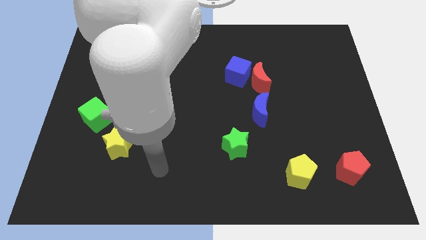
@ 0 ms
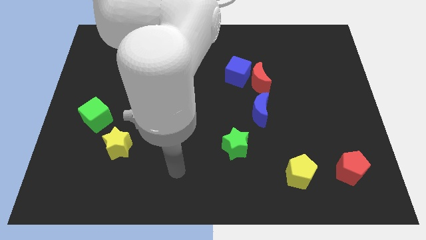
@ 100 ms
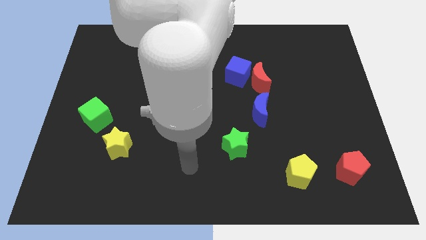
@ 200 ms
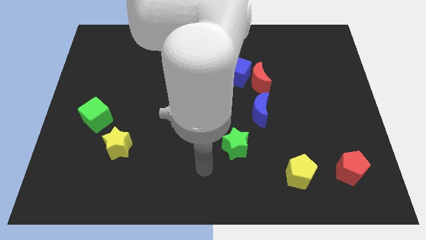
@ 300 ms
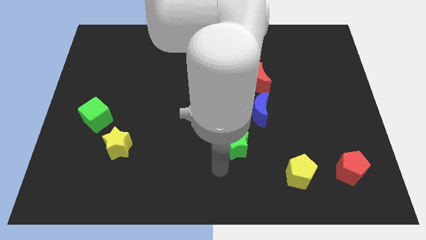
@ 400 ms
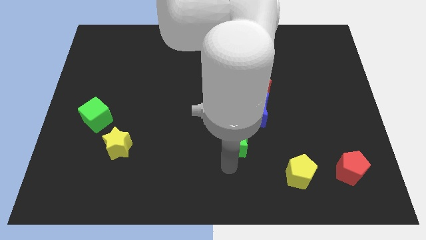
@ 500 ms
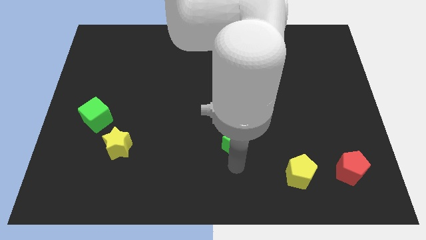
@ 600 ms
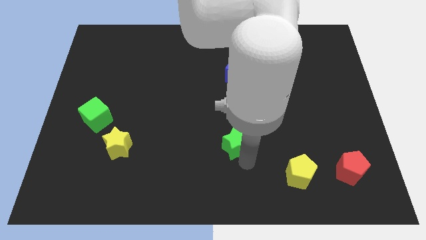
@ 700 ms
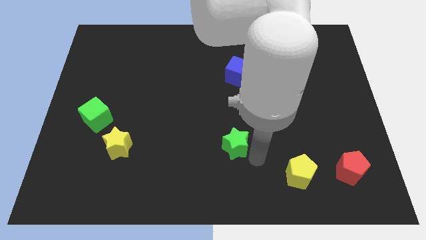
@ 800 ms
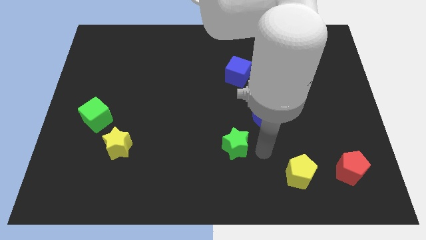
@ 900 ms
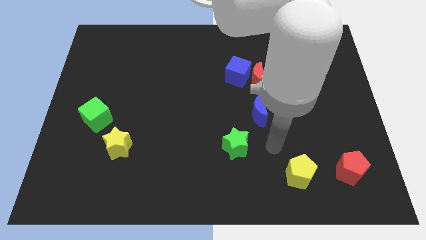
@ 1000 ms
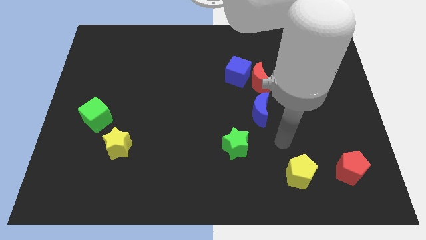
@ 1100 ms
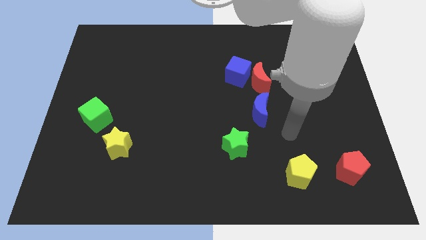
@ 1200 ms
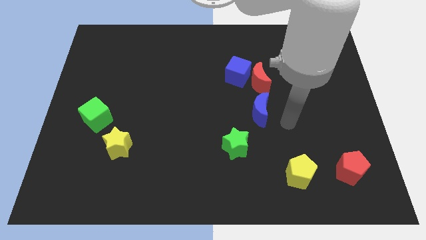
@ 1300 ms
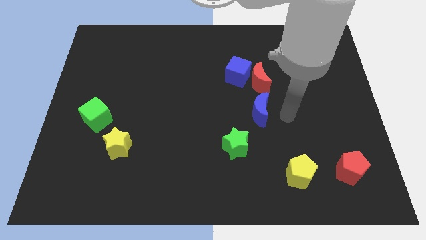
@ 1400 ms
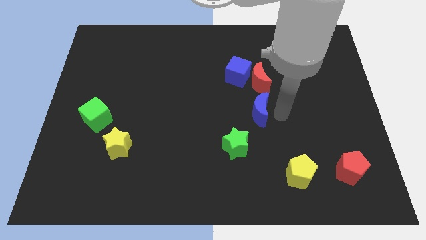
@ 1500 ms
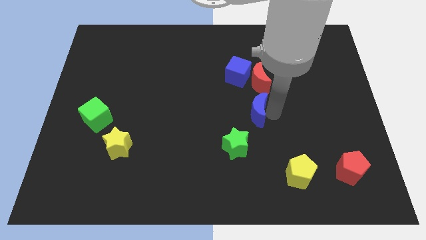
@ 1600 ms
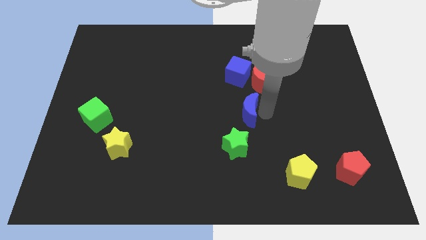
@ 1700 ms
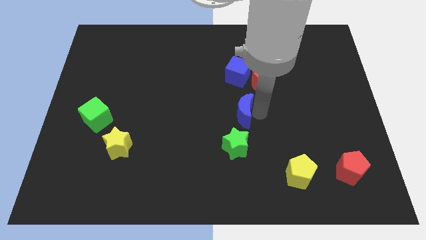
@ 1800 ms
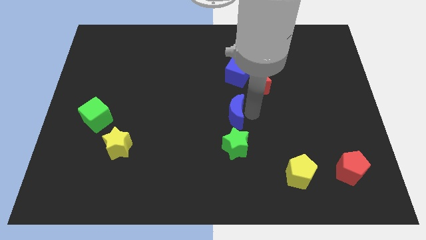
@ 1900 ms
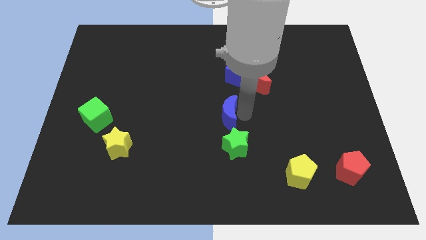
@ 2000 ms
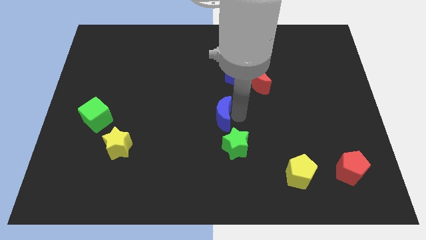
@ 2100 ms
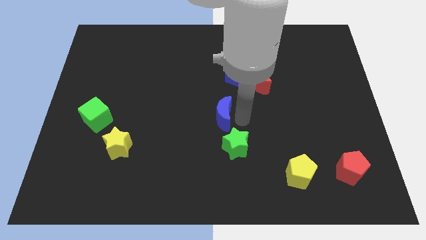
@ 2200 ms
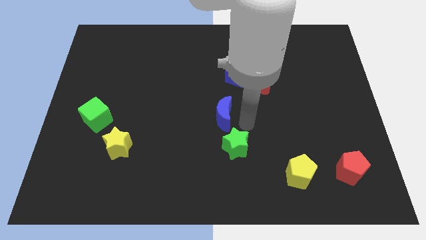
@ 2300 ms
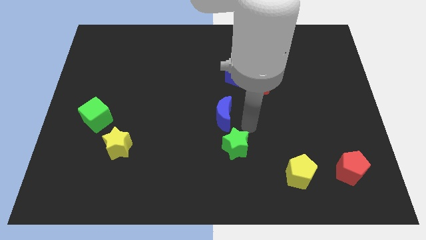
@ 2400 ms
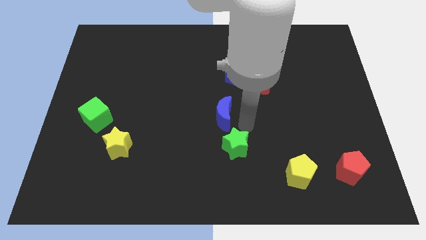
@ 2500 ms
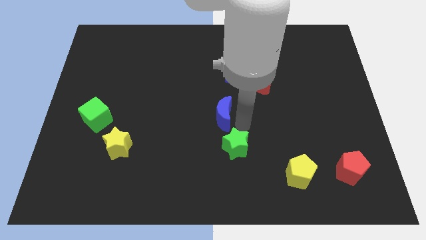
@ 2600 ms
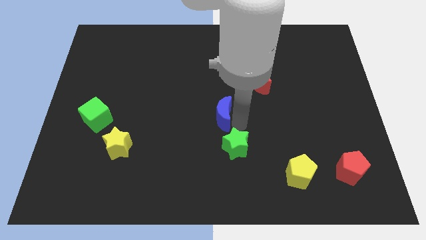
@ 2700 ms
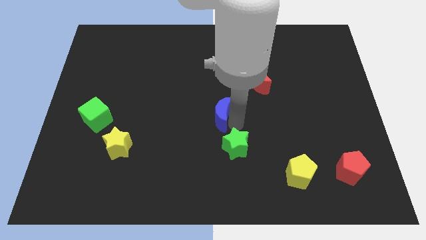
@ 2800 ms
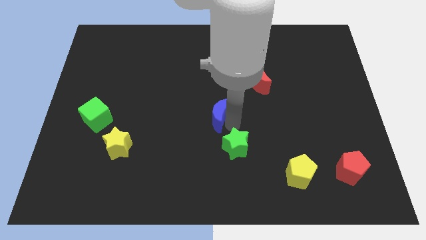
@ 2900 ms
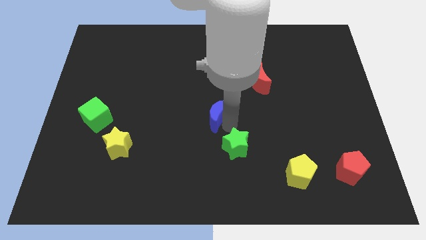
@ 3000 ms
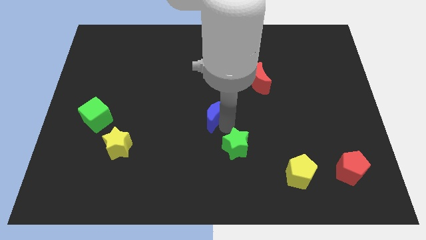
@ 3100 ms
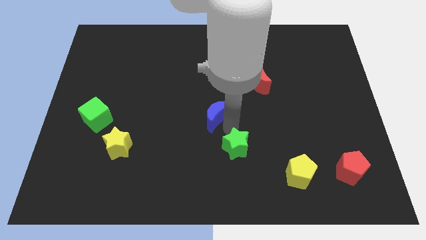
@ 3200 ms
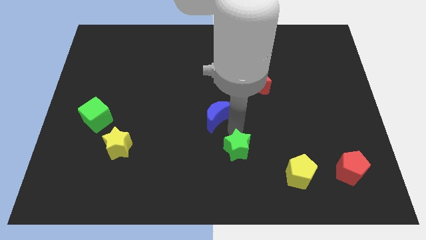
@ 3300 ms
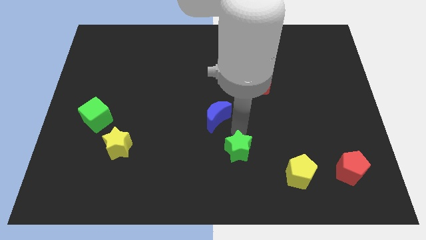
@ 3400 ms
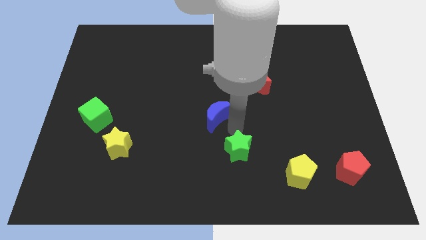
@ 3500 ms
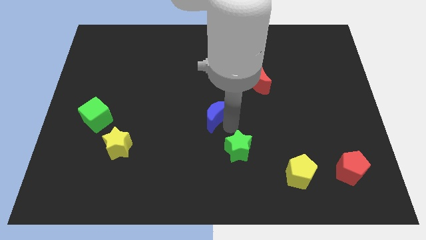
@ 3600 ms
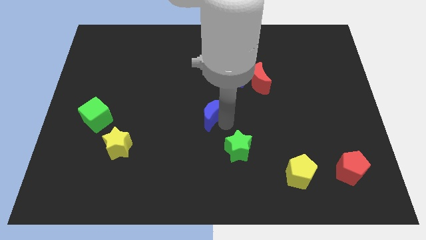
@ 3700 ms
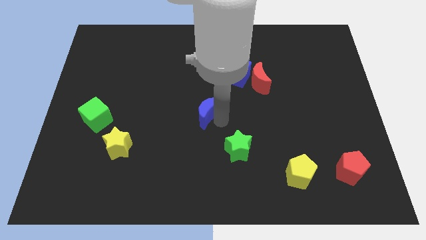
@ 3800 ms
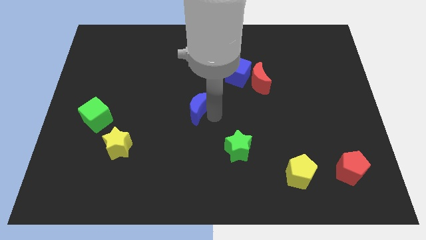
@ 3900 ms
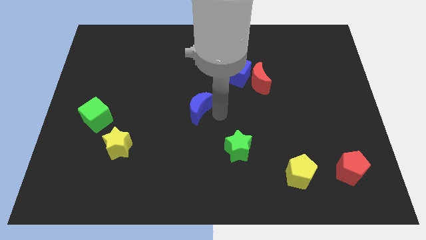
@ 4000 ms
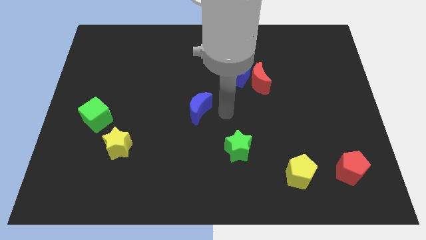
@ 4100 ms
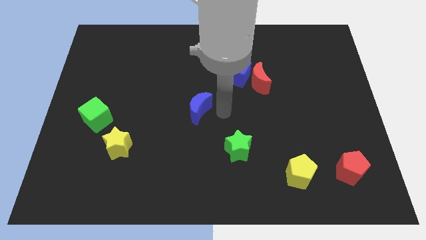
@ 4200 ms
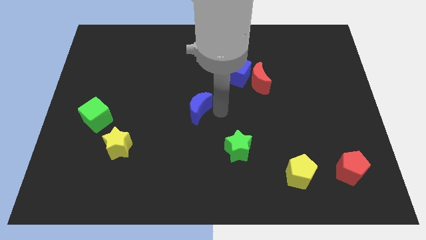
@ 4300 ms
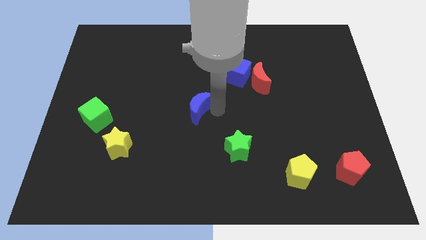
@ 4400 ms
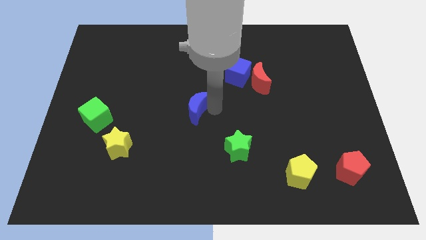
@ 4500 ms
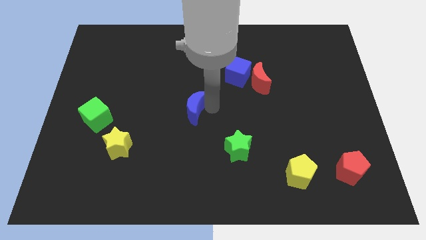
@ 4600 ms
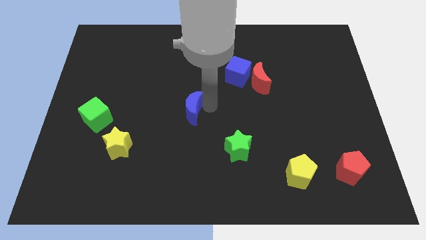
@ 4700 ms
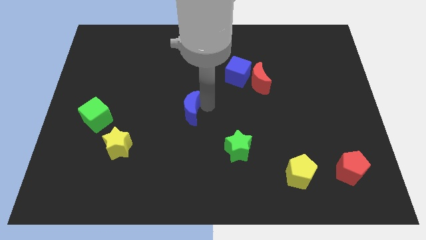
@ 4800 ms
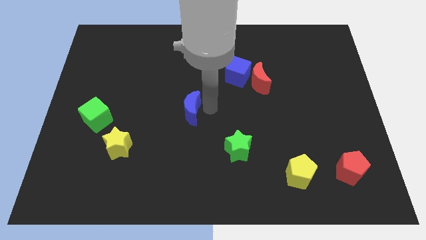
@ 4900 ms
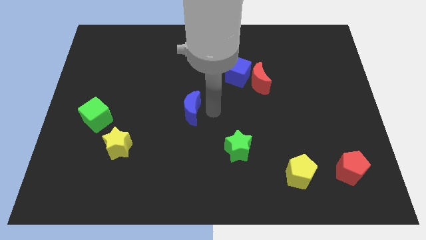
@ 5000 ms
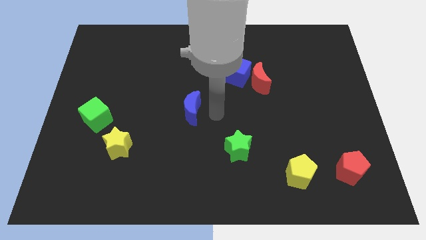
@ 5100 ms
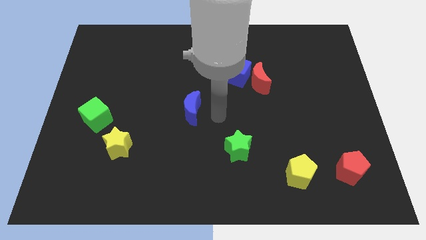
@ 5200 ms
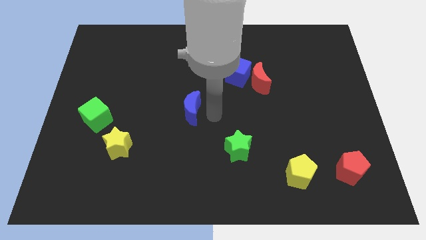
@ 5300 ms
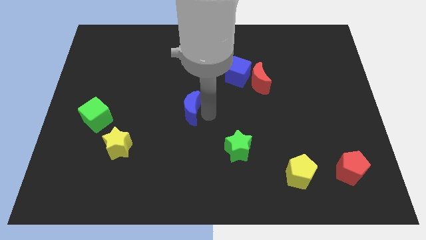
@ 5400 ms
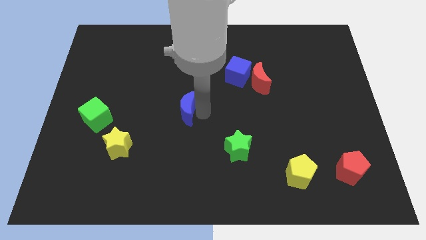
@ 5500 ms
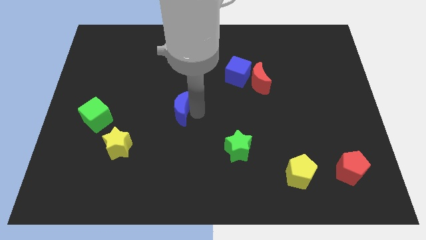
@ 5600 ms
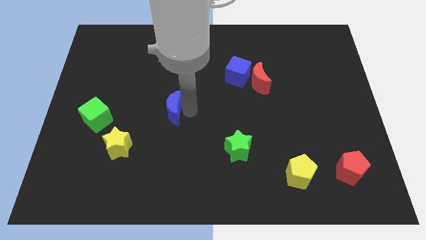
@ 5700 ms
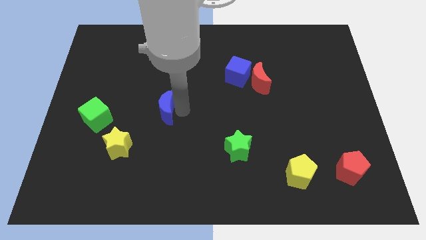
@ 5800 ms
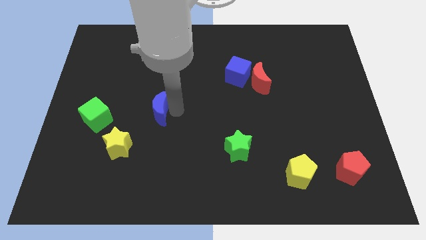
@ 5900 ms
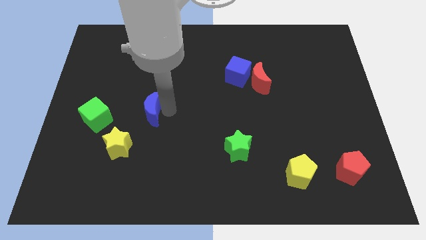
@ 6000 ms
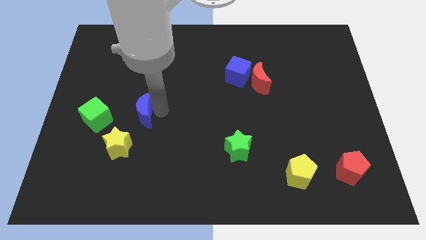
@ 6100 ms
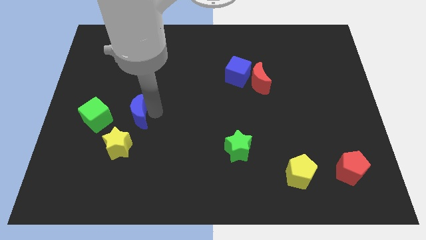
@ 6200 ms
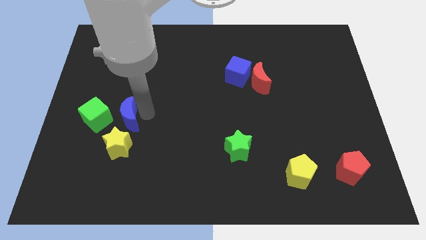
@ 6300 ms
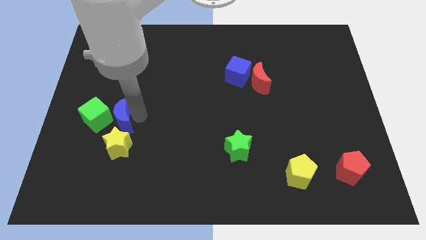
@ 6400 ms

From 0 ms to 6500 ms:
slide the blue moon next to the green cube

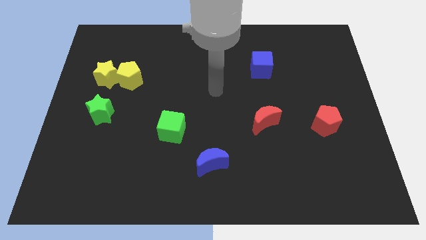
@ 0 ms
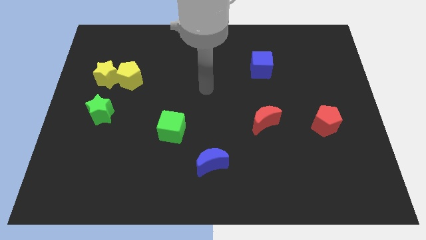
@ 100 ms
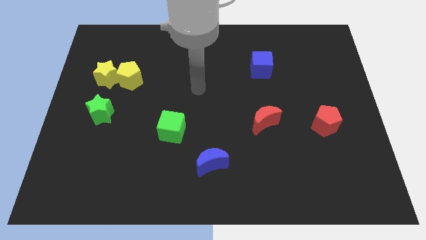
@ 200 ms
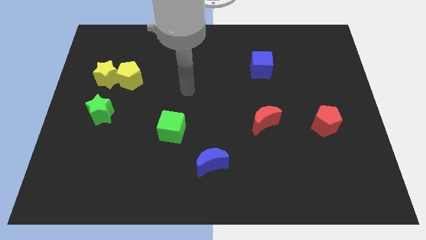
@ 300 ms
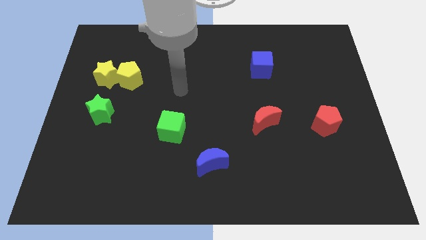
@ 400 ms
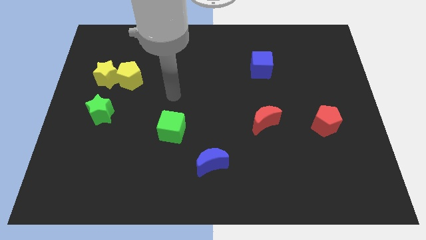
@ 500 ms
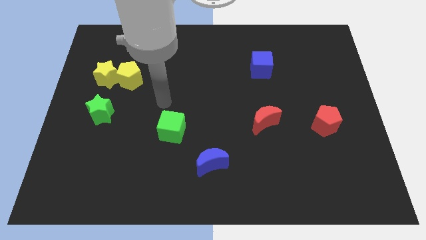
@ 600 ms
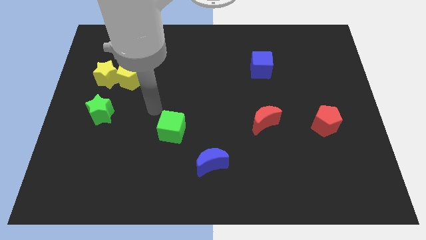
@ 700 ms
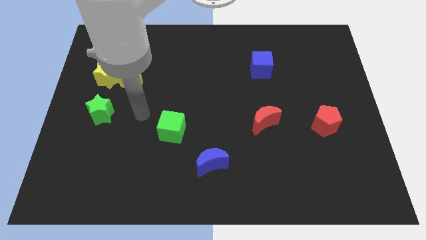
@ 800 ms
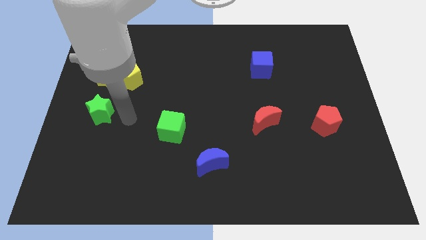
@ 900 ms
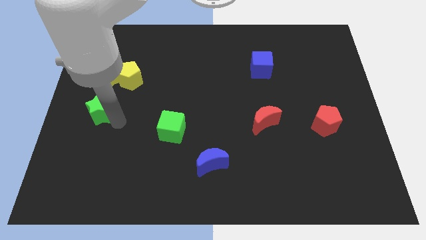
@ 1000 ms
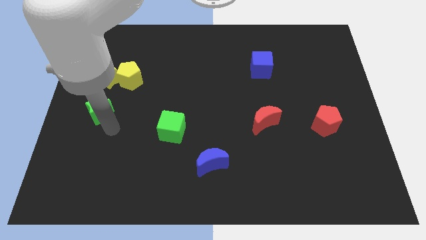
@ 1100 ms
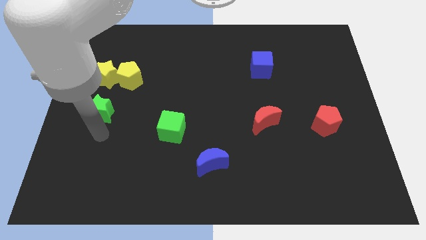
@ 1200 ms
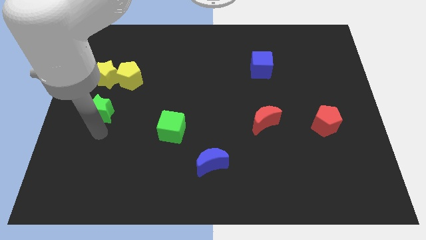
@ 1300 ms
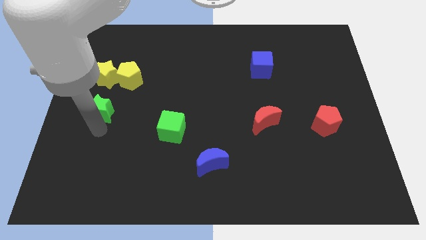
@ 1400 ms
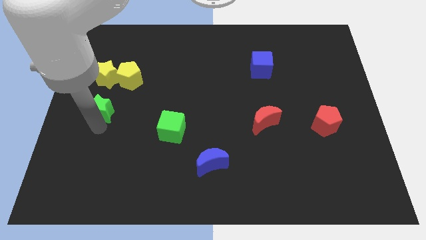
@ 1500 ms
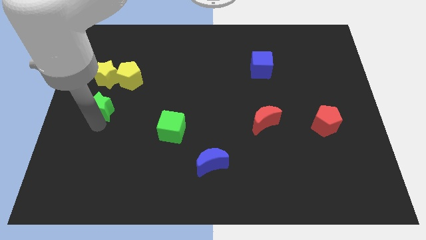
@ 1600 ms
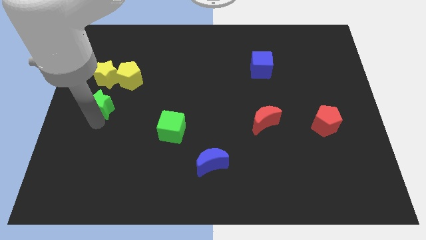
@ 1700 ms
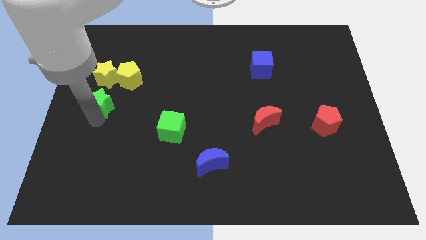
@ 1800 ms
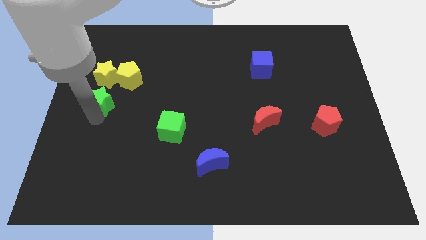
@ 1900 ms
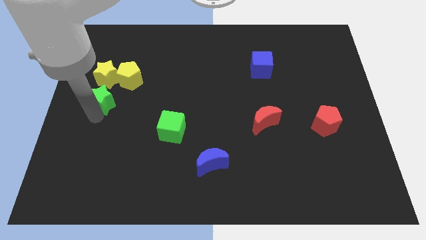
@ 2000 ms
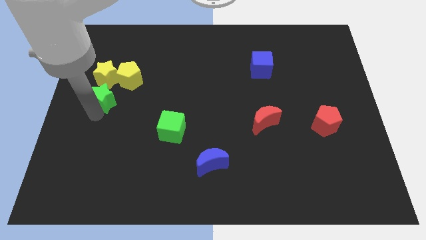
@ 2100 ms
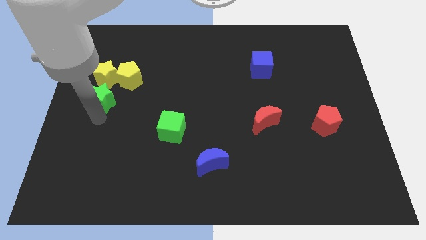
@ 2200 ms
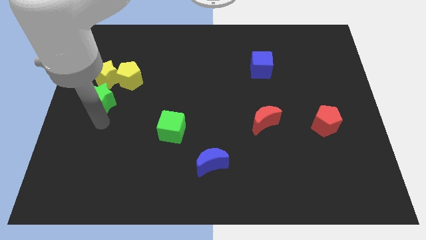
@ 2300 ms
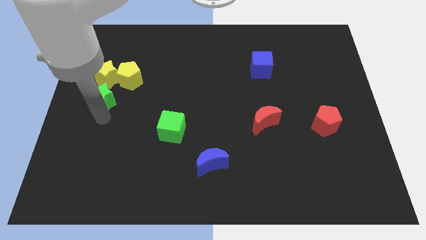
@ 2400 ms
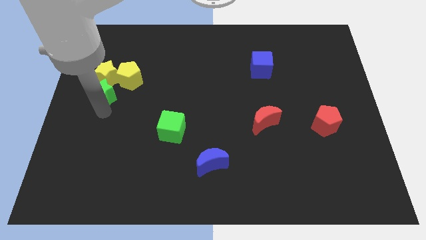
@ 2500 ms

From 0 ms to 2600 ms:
move the green star to the yellow star
